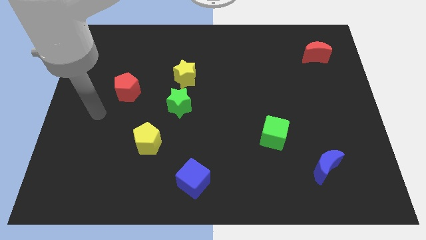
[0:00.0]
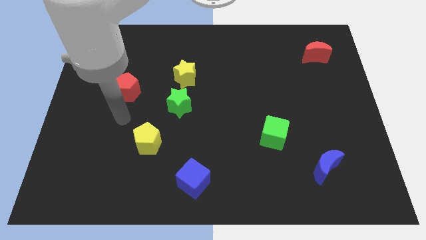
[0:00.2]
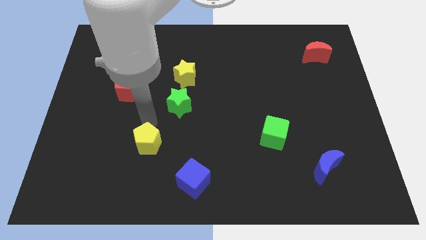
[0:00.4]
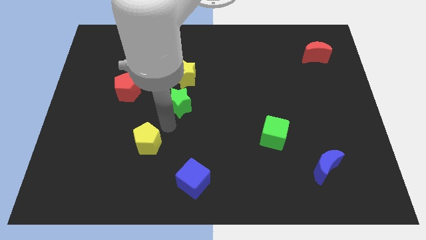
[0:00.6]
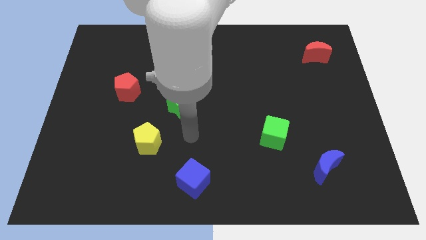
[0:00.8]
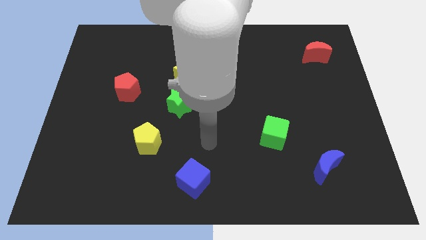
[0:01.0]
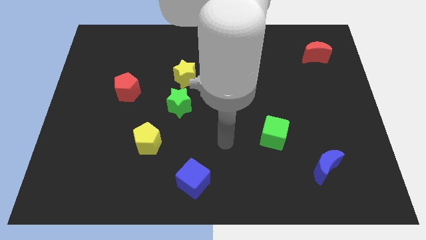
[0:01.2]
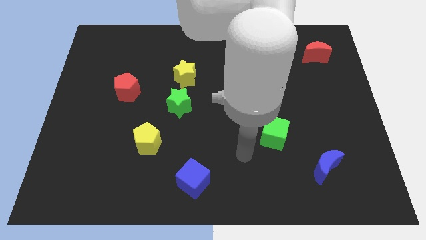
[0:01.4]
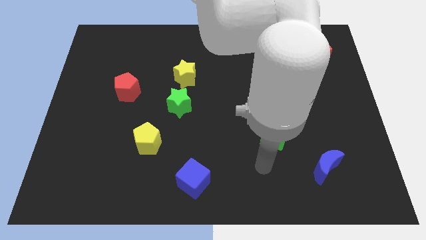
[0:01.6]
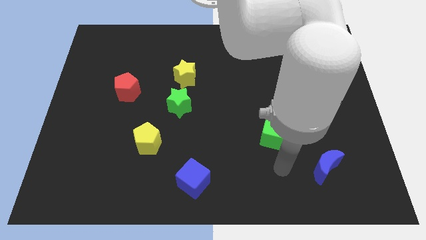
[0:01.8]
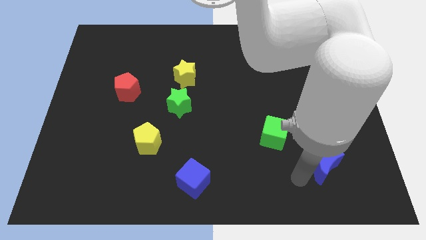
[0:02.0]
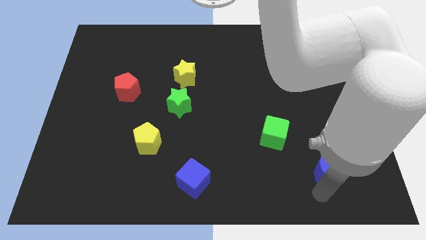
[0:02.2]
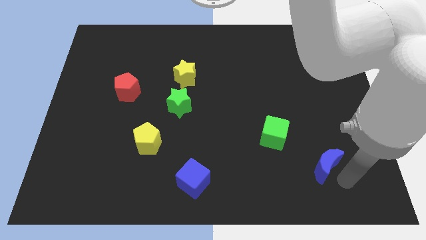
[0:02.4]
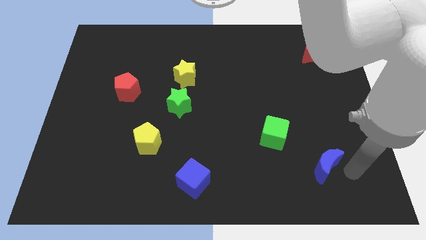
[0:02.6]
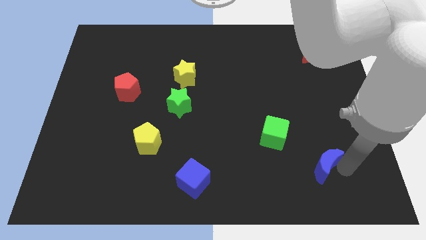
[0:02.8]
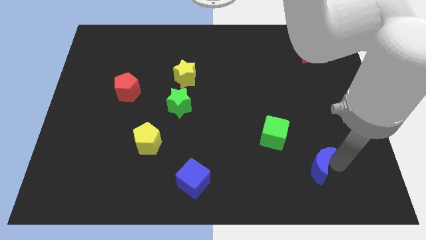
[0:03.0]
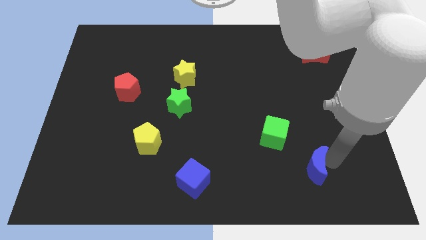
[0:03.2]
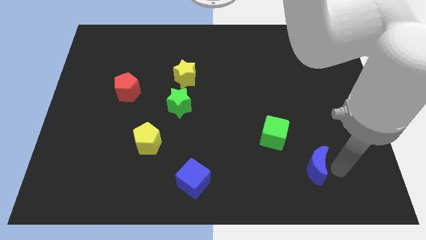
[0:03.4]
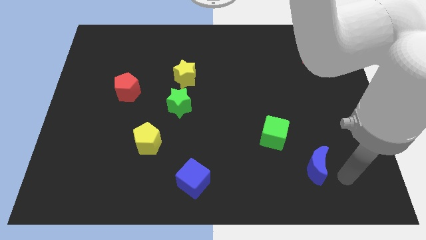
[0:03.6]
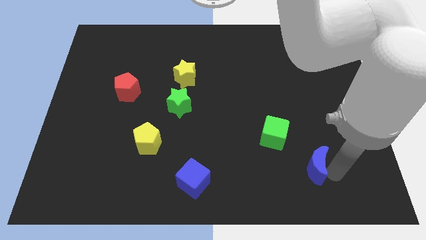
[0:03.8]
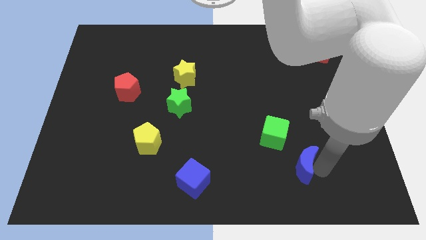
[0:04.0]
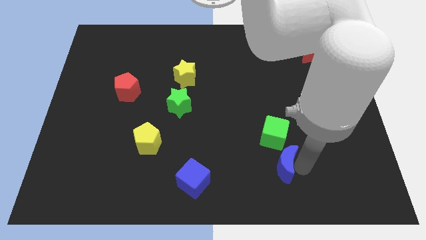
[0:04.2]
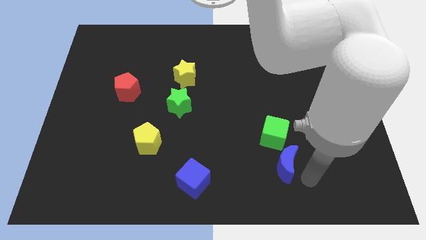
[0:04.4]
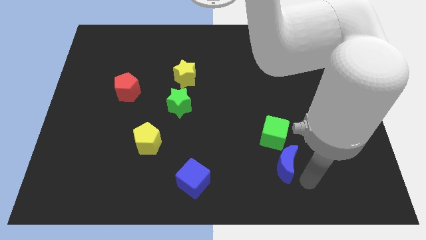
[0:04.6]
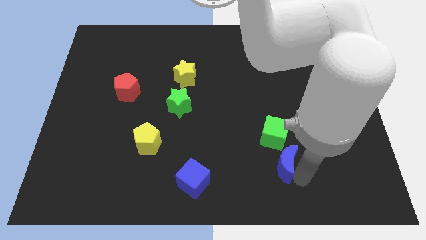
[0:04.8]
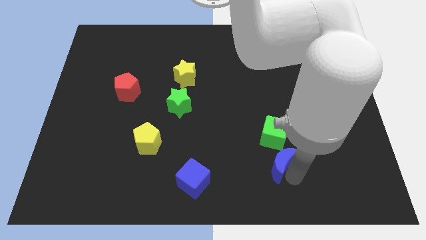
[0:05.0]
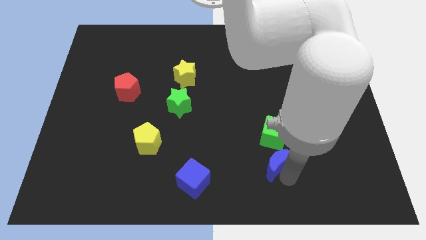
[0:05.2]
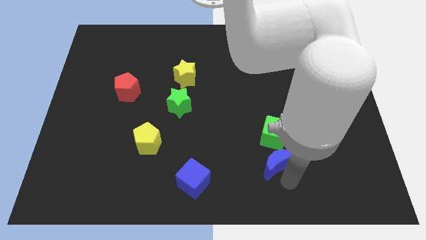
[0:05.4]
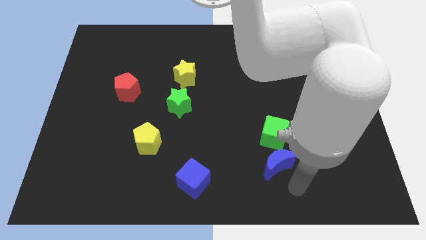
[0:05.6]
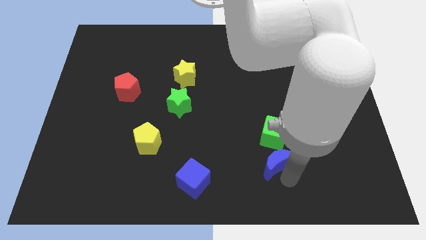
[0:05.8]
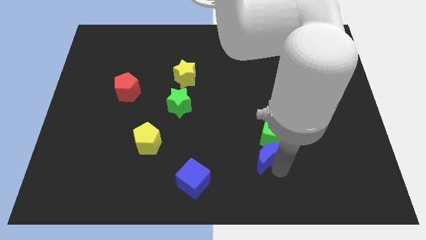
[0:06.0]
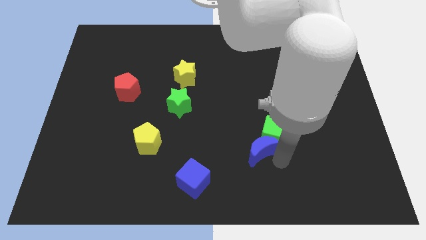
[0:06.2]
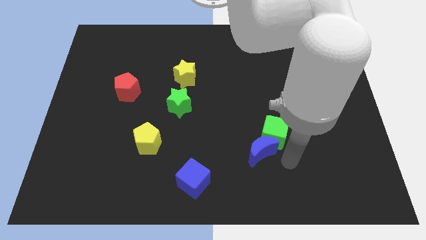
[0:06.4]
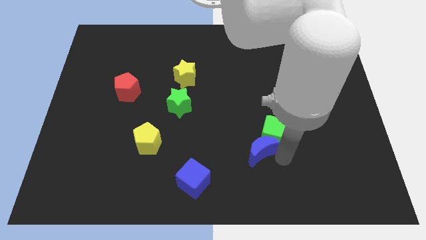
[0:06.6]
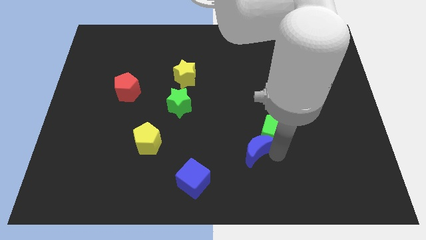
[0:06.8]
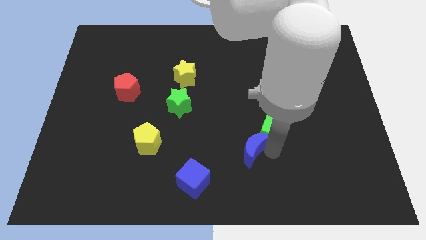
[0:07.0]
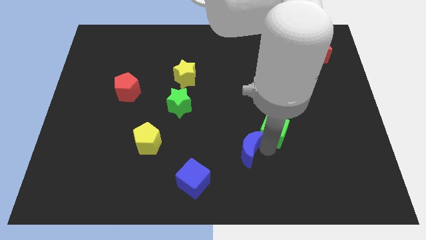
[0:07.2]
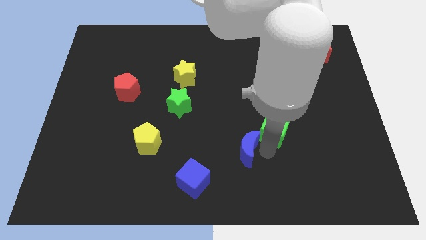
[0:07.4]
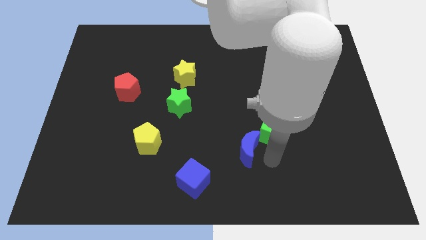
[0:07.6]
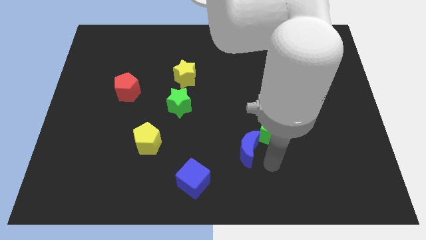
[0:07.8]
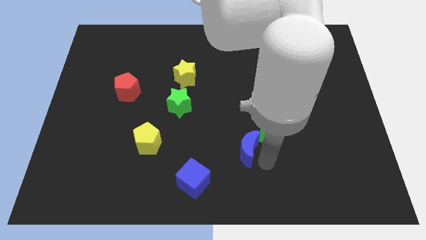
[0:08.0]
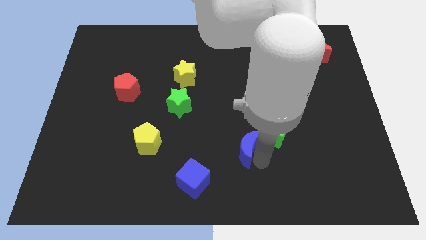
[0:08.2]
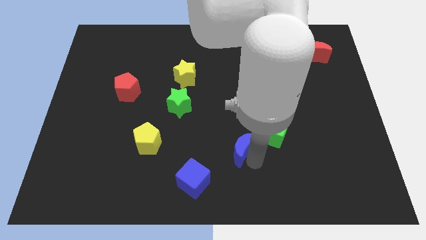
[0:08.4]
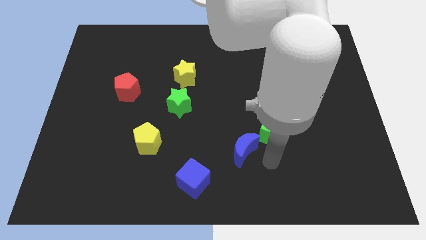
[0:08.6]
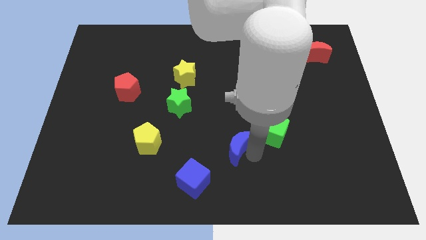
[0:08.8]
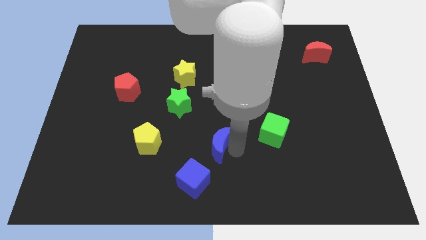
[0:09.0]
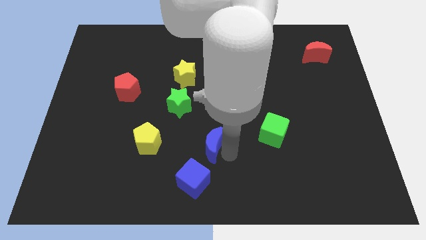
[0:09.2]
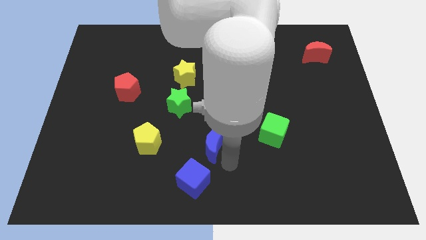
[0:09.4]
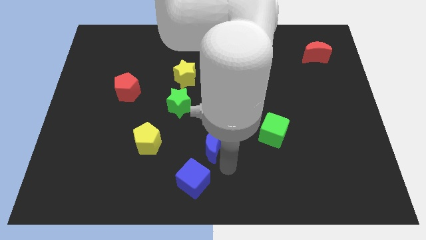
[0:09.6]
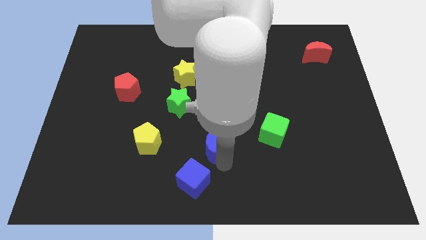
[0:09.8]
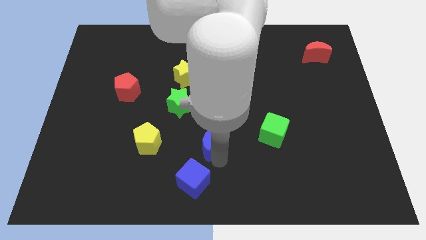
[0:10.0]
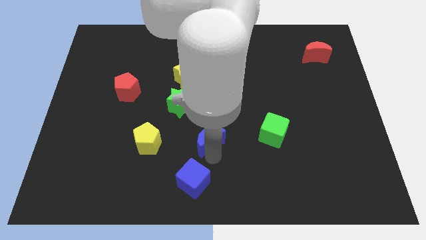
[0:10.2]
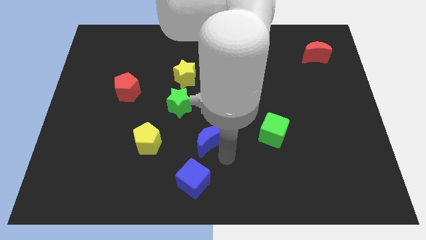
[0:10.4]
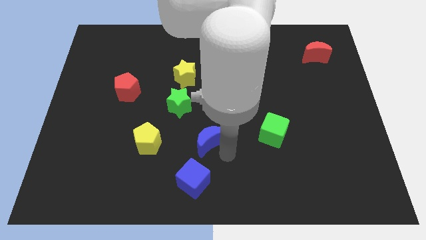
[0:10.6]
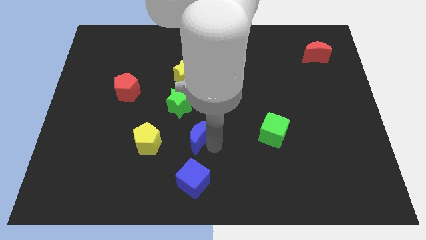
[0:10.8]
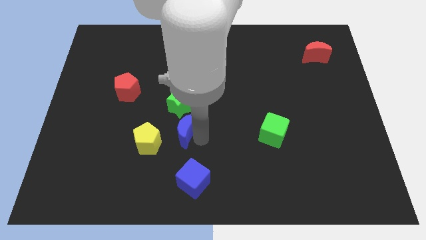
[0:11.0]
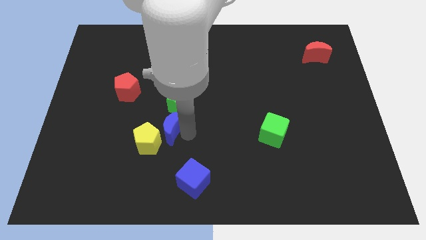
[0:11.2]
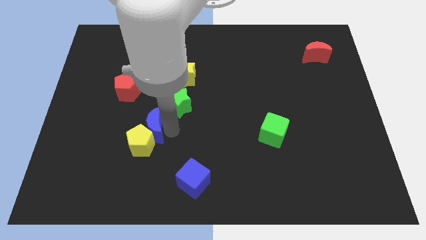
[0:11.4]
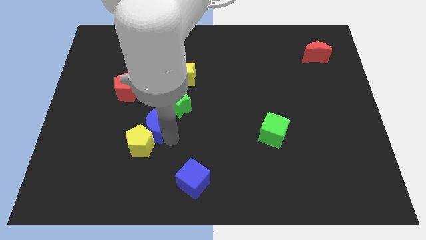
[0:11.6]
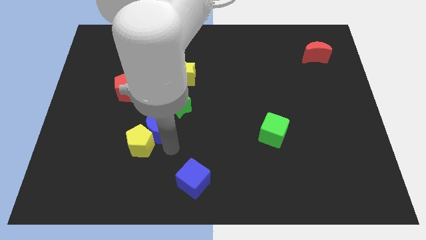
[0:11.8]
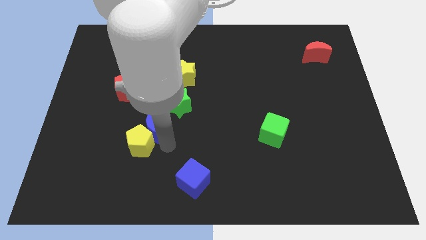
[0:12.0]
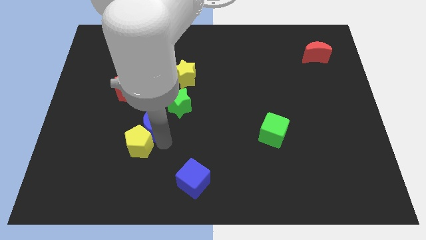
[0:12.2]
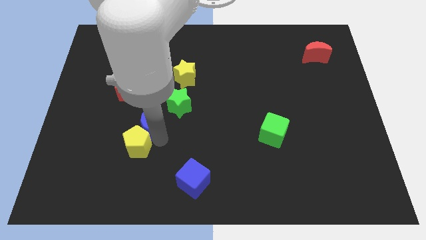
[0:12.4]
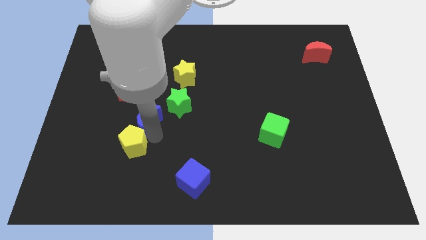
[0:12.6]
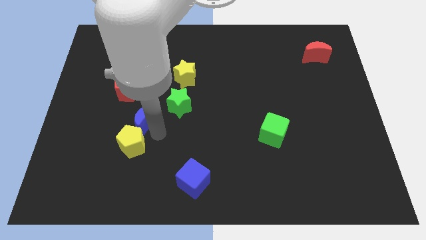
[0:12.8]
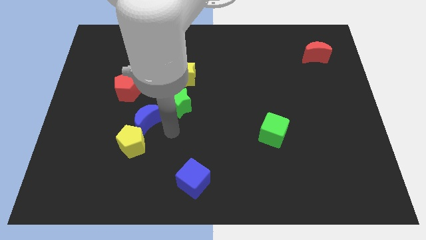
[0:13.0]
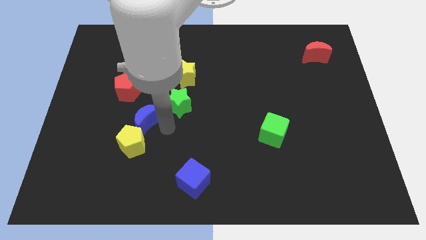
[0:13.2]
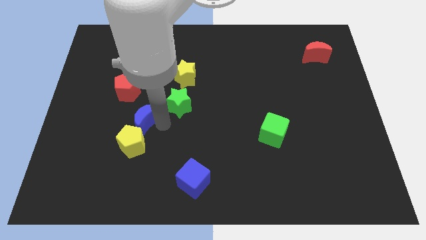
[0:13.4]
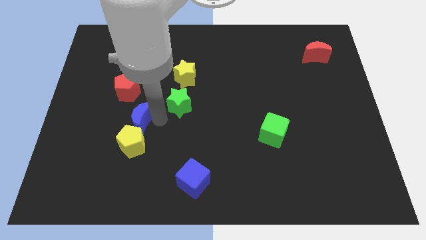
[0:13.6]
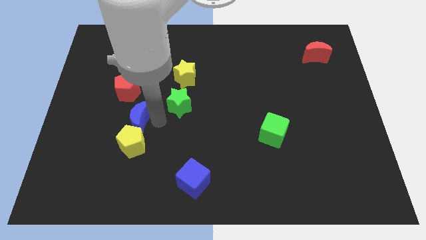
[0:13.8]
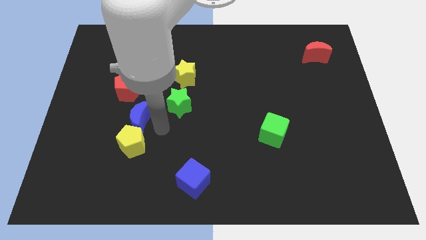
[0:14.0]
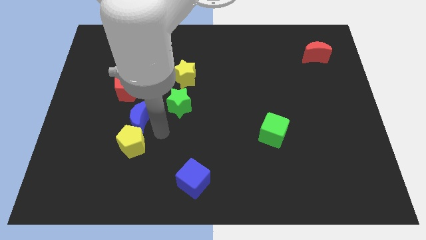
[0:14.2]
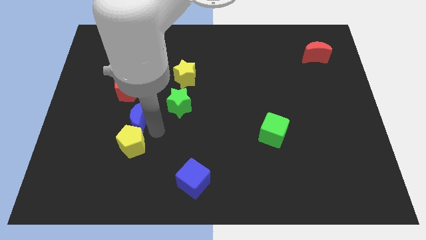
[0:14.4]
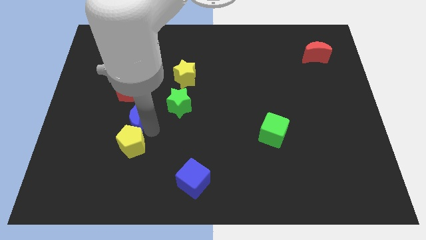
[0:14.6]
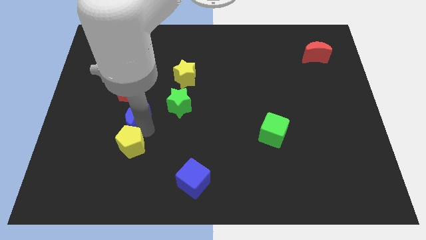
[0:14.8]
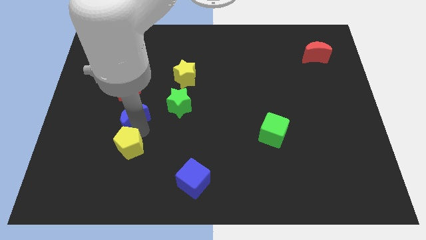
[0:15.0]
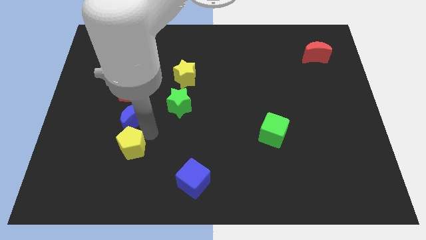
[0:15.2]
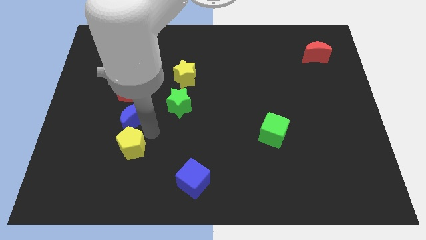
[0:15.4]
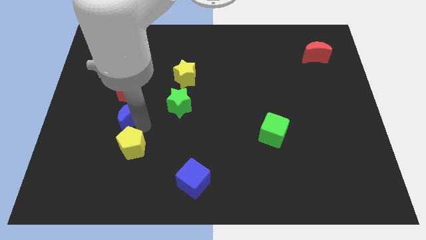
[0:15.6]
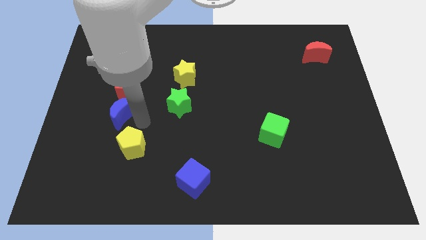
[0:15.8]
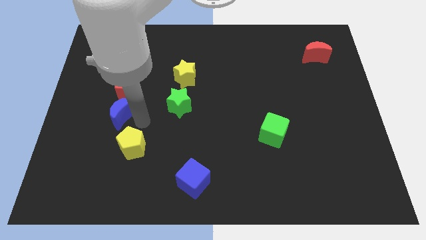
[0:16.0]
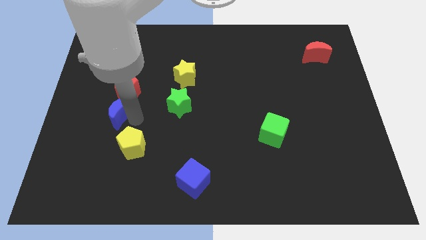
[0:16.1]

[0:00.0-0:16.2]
put the blue moon to the bottom left side of the red pentagon
